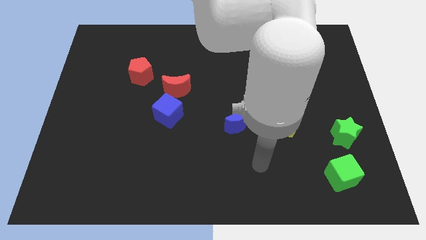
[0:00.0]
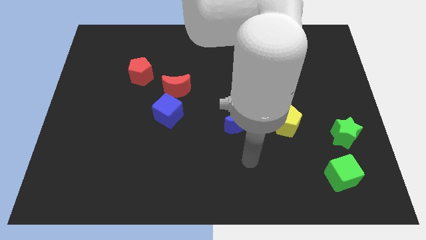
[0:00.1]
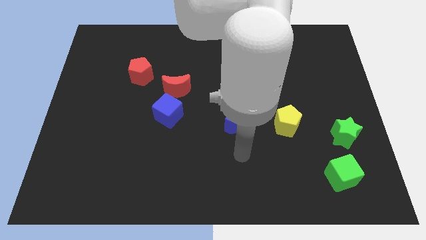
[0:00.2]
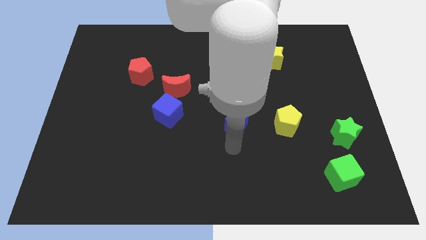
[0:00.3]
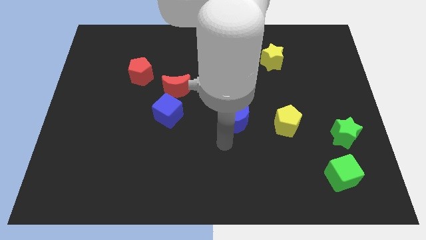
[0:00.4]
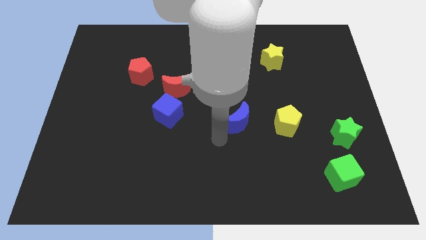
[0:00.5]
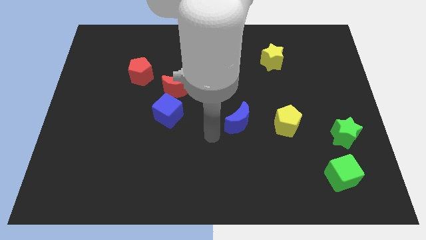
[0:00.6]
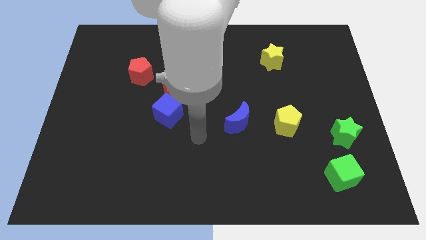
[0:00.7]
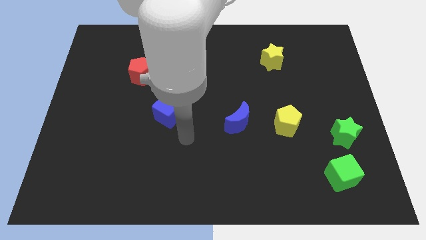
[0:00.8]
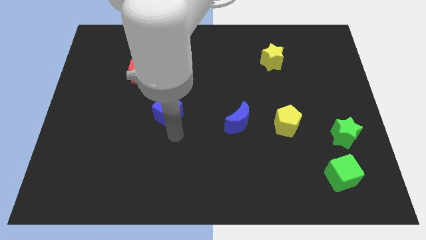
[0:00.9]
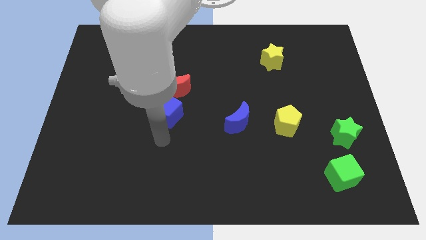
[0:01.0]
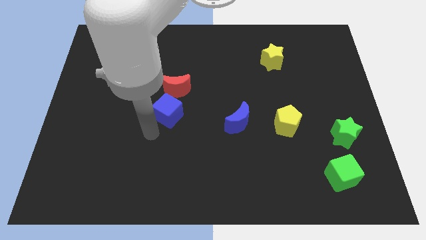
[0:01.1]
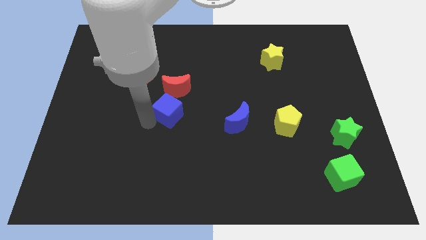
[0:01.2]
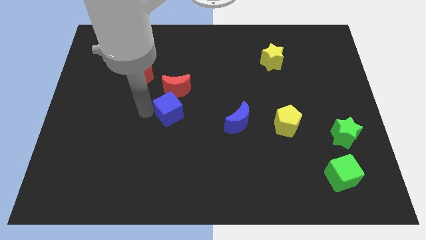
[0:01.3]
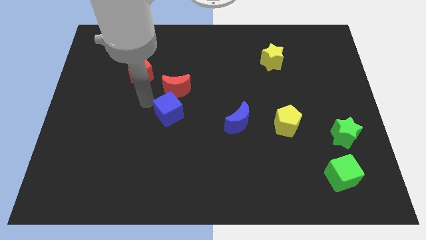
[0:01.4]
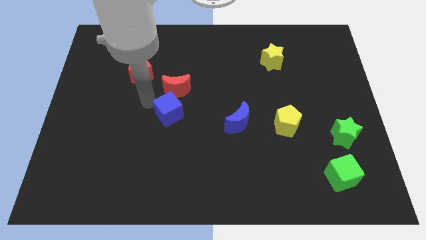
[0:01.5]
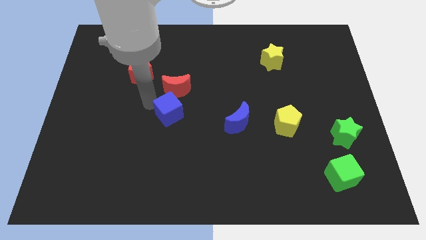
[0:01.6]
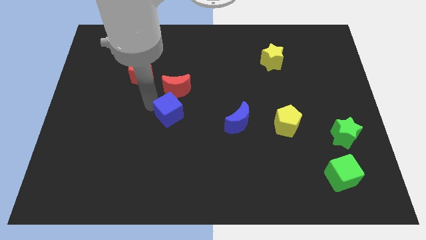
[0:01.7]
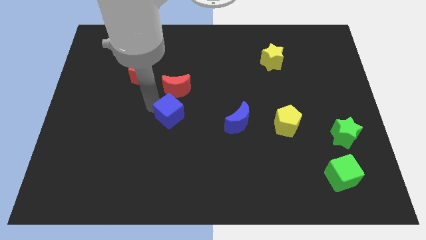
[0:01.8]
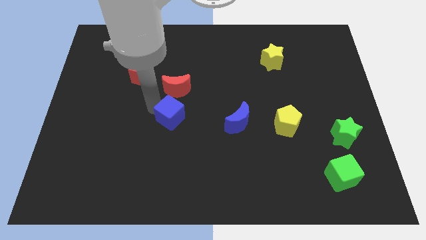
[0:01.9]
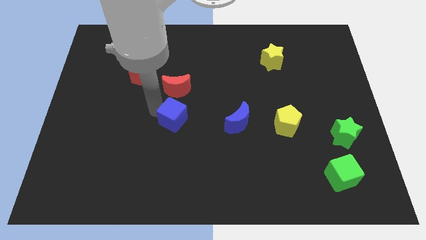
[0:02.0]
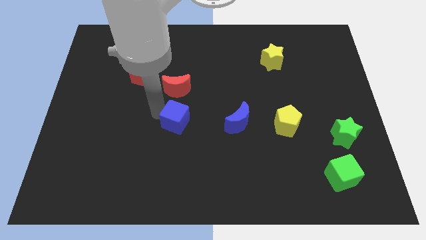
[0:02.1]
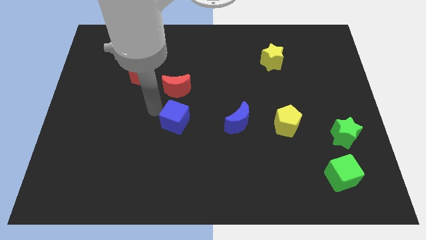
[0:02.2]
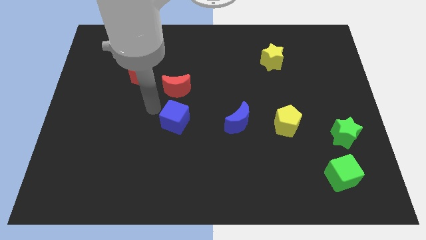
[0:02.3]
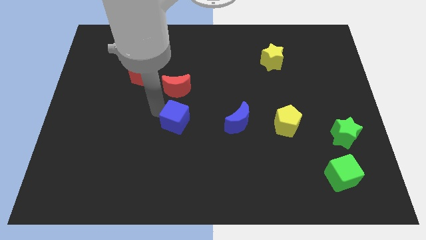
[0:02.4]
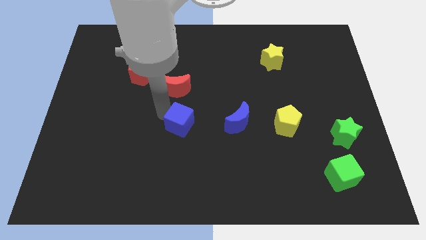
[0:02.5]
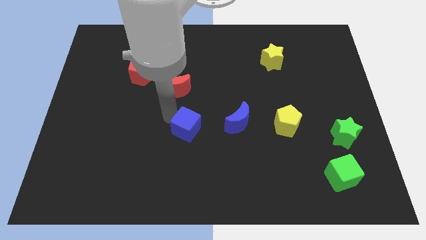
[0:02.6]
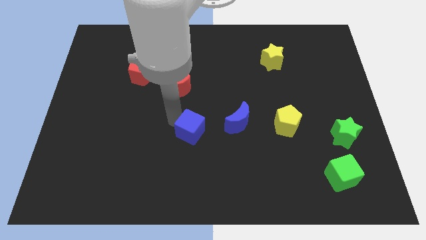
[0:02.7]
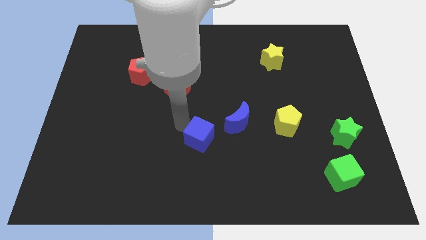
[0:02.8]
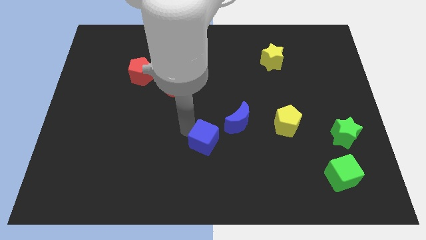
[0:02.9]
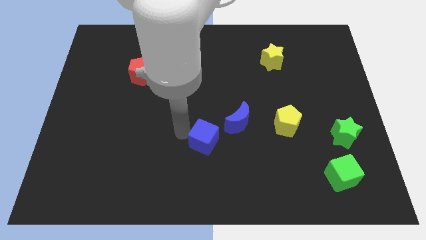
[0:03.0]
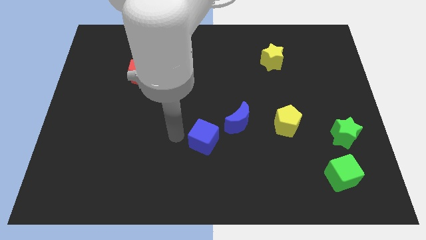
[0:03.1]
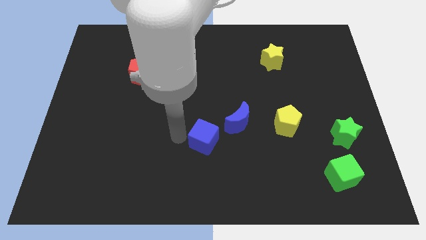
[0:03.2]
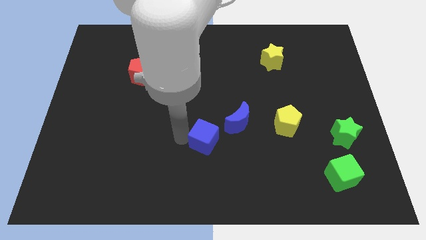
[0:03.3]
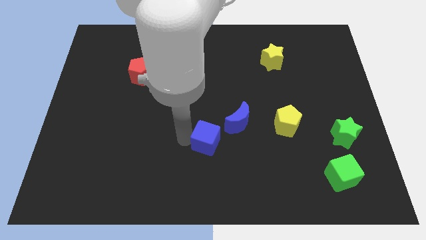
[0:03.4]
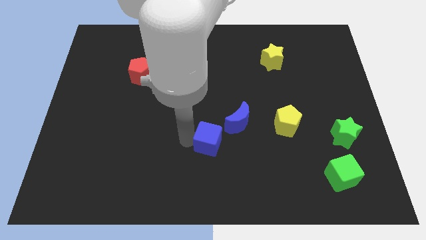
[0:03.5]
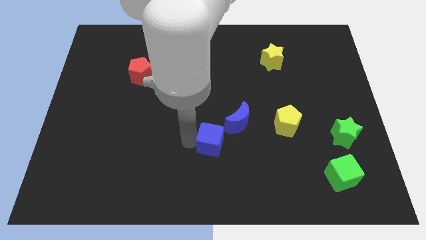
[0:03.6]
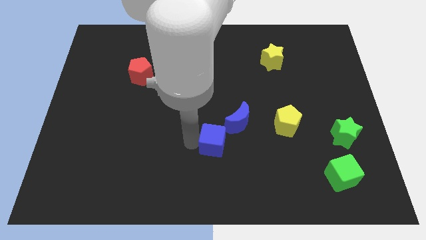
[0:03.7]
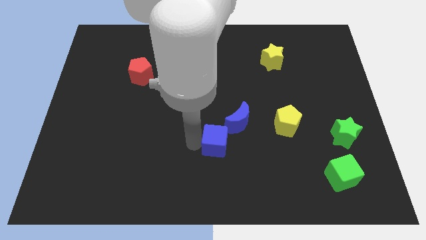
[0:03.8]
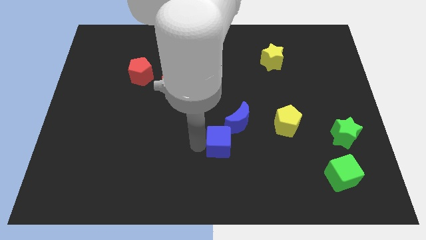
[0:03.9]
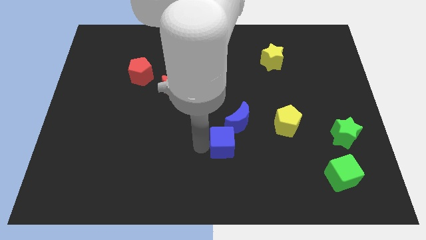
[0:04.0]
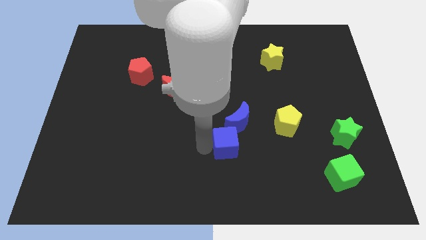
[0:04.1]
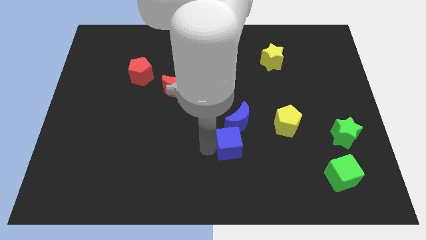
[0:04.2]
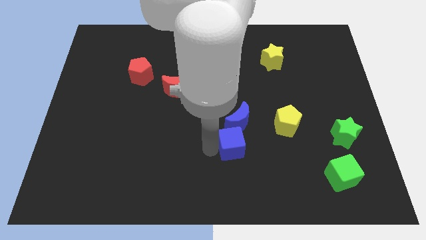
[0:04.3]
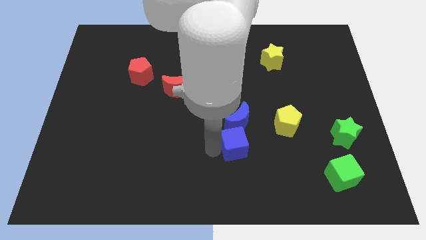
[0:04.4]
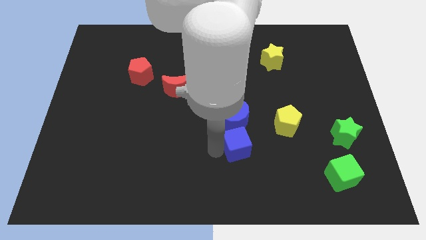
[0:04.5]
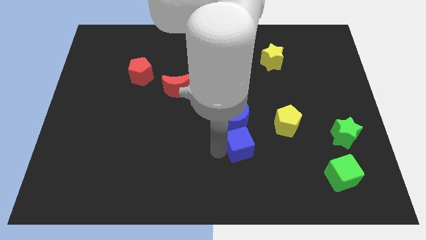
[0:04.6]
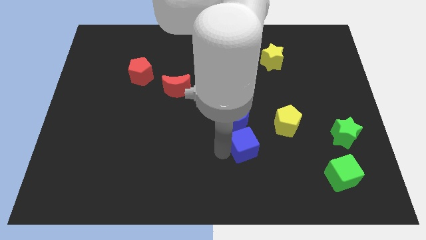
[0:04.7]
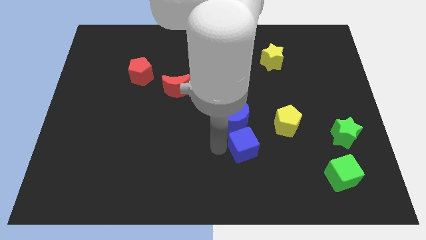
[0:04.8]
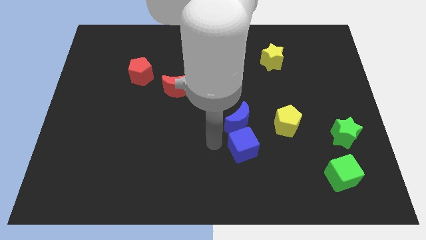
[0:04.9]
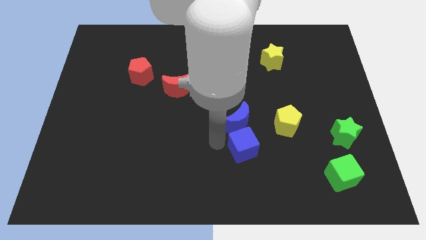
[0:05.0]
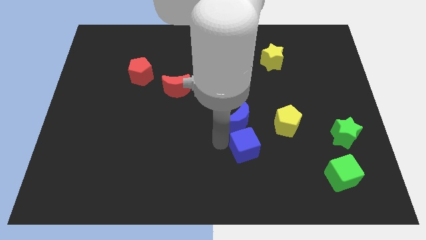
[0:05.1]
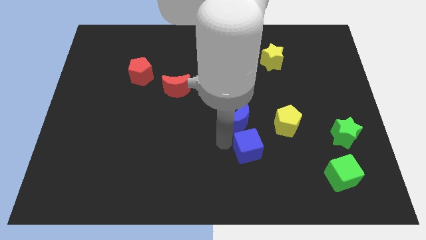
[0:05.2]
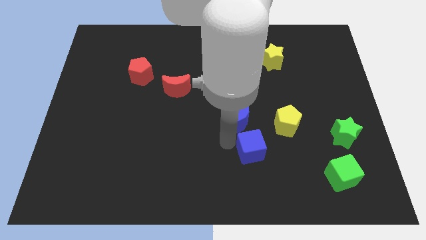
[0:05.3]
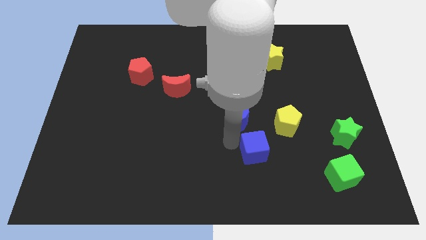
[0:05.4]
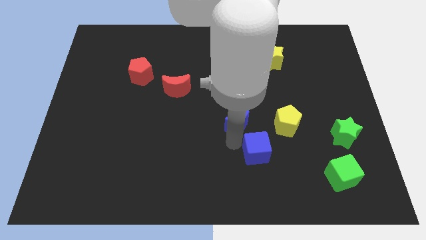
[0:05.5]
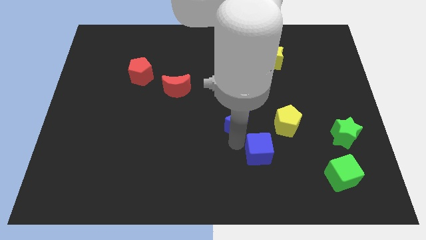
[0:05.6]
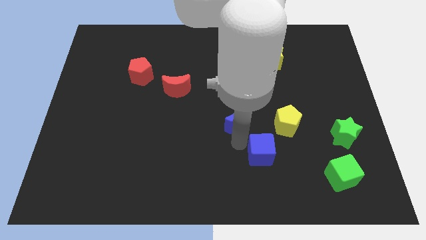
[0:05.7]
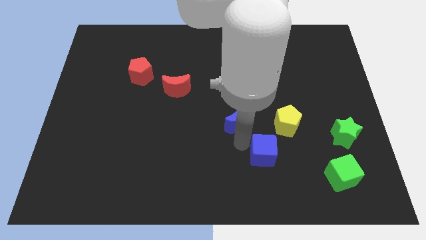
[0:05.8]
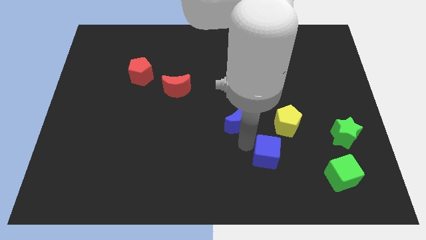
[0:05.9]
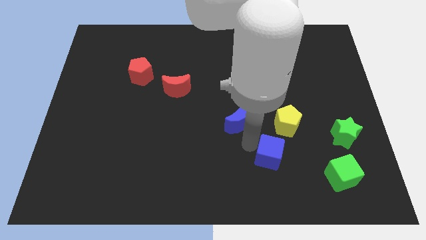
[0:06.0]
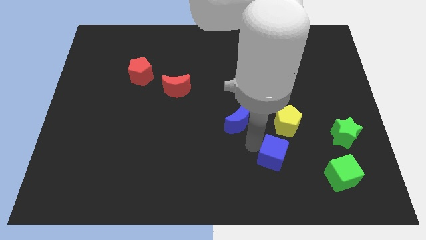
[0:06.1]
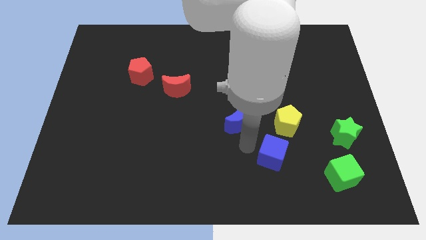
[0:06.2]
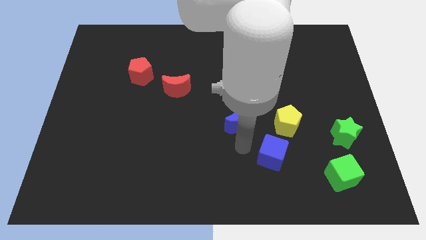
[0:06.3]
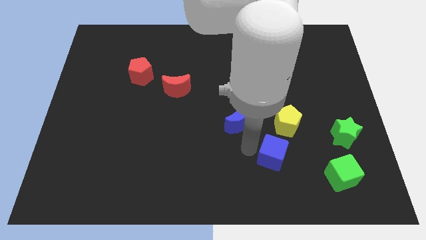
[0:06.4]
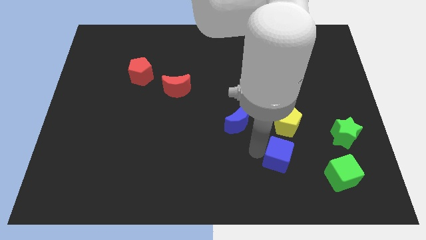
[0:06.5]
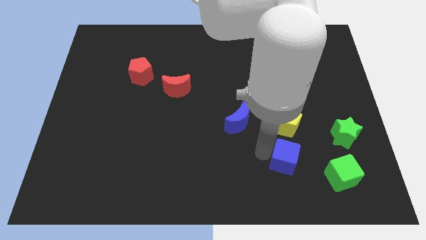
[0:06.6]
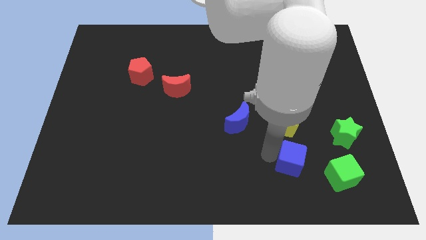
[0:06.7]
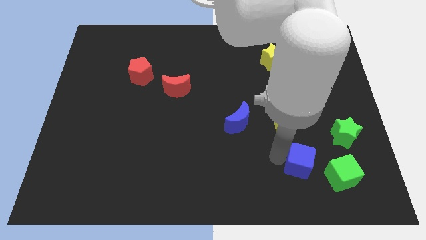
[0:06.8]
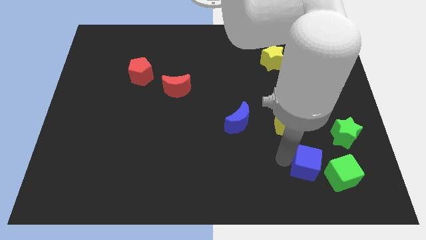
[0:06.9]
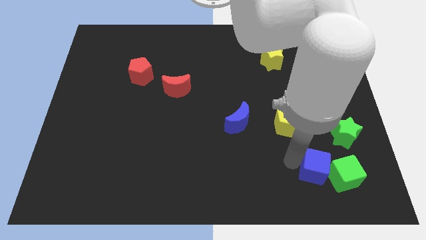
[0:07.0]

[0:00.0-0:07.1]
put the blue cube close to the green cube
